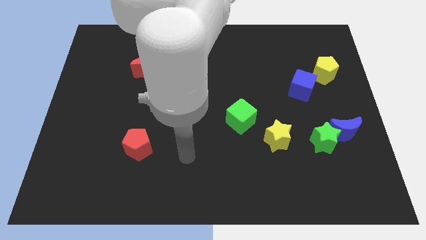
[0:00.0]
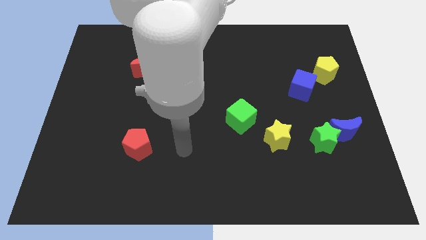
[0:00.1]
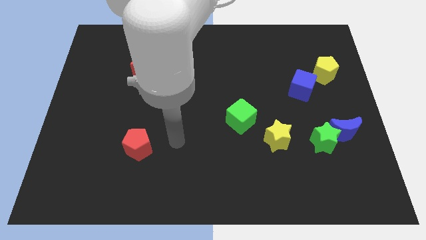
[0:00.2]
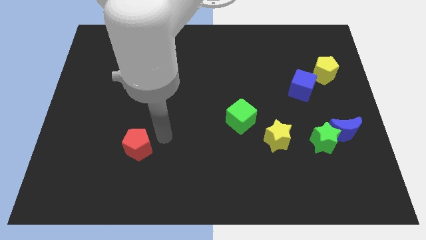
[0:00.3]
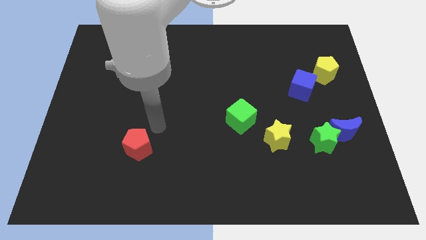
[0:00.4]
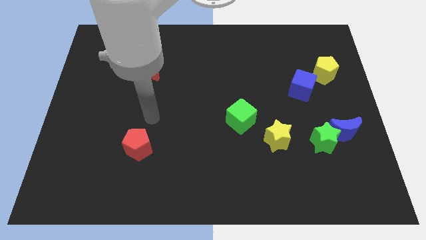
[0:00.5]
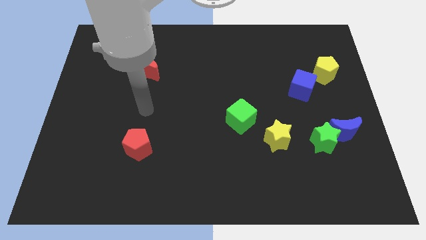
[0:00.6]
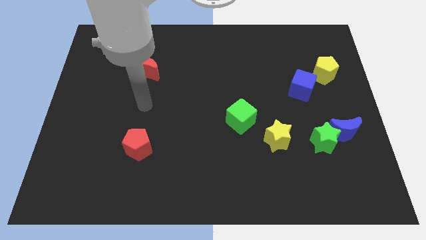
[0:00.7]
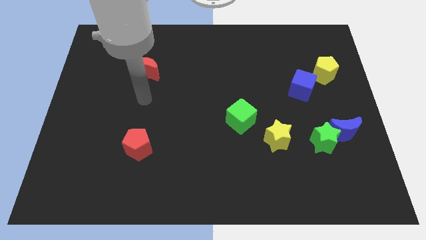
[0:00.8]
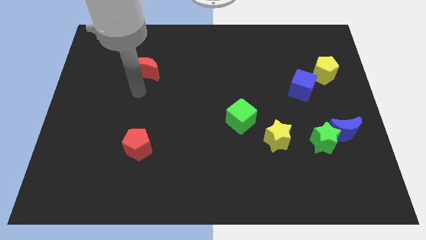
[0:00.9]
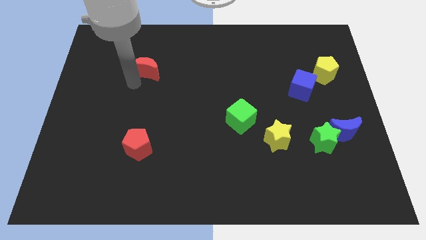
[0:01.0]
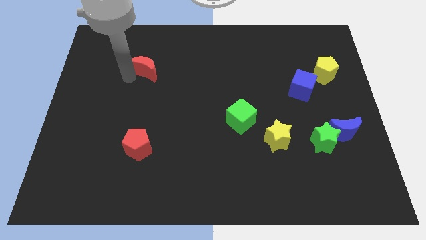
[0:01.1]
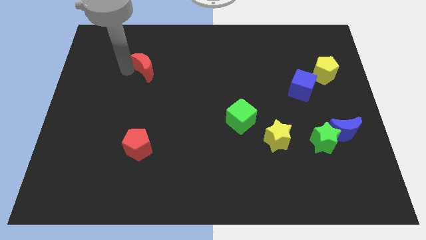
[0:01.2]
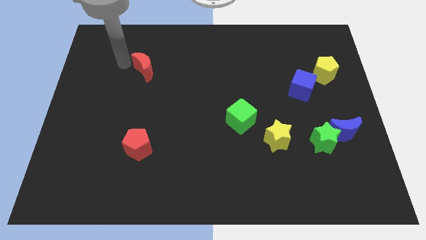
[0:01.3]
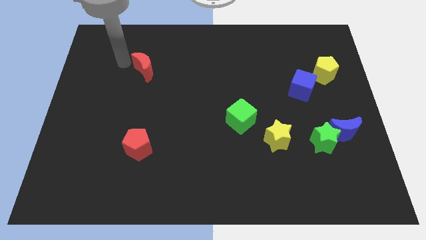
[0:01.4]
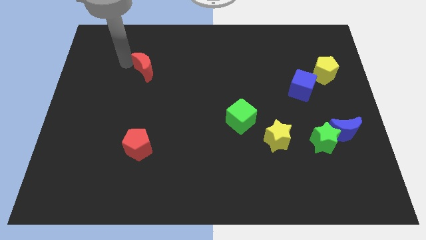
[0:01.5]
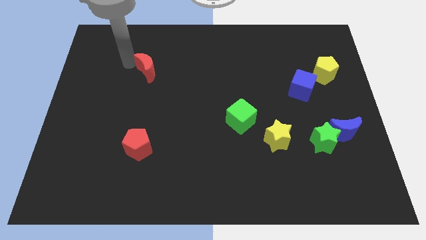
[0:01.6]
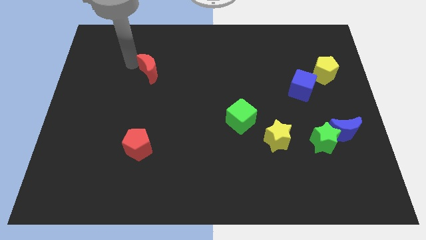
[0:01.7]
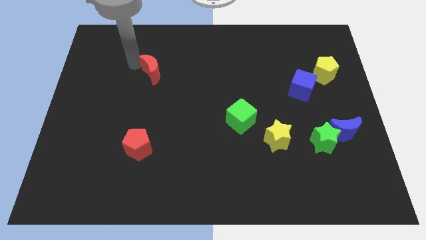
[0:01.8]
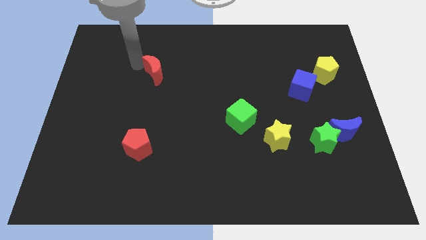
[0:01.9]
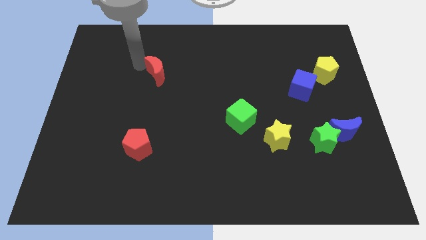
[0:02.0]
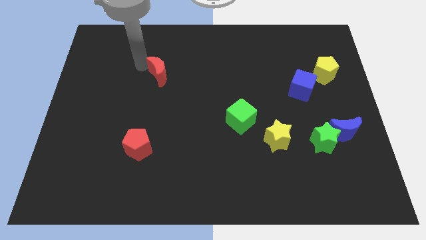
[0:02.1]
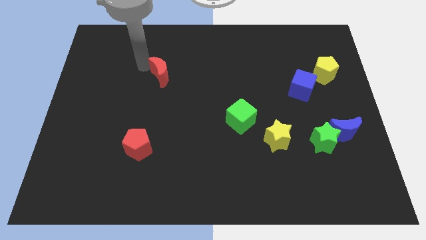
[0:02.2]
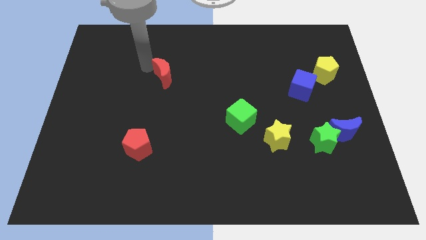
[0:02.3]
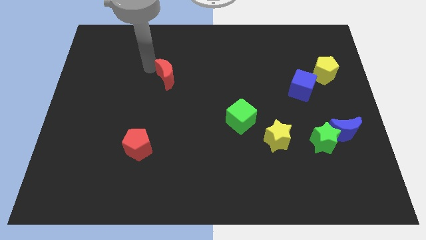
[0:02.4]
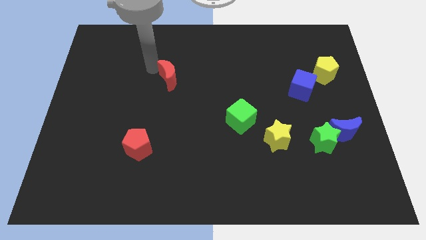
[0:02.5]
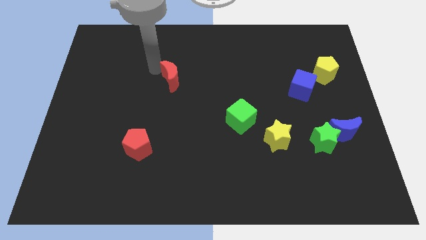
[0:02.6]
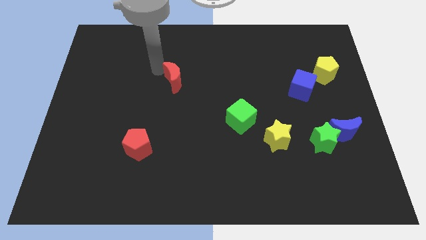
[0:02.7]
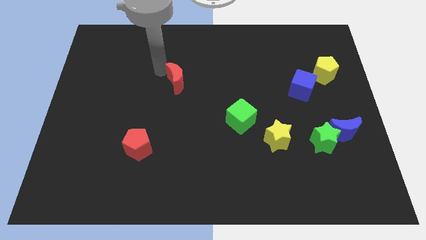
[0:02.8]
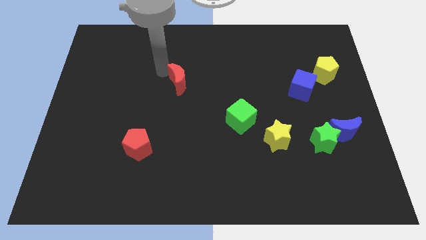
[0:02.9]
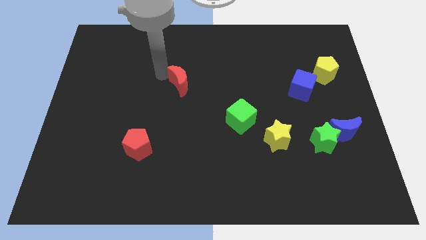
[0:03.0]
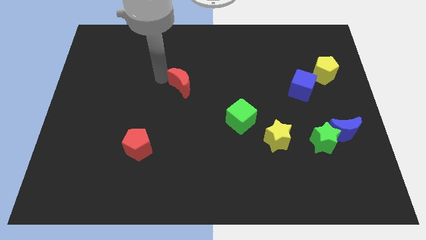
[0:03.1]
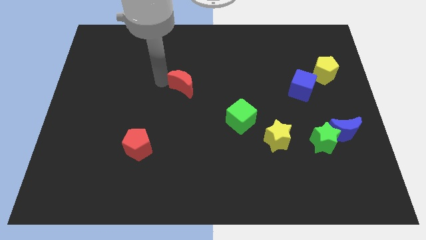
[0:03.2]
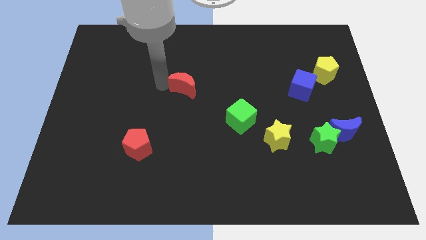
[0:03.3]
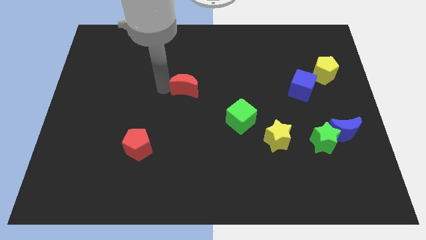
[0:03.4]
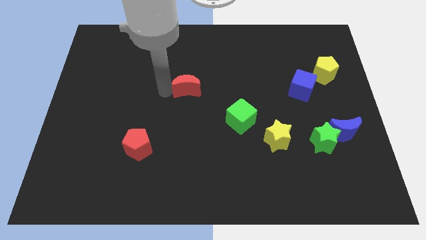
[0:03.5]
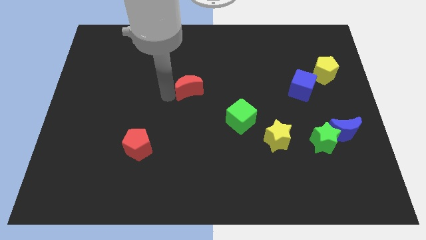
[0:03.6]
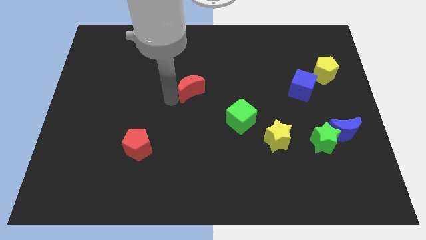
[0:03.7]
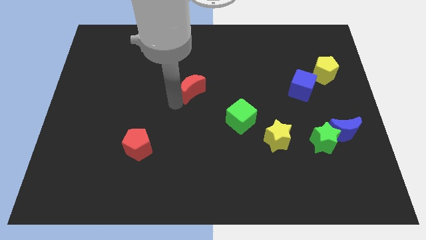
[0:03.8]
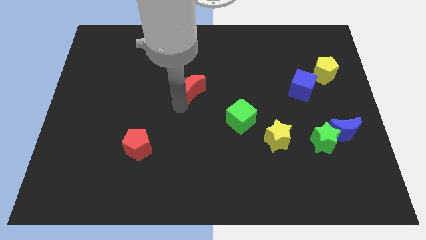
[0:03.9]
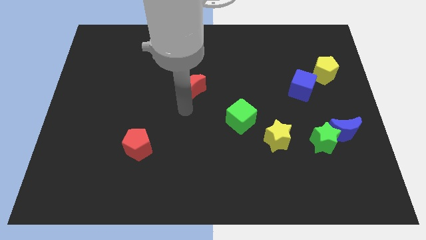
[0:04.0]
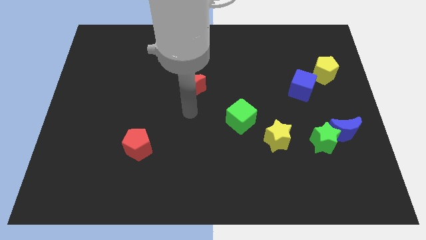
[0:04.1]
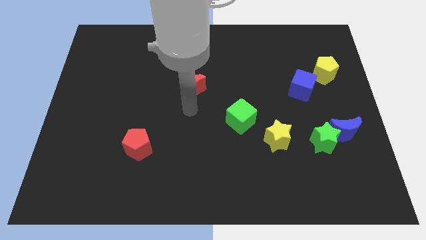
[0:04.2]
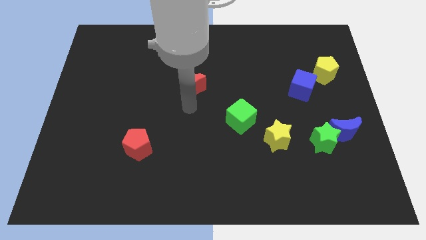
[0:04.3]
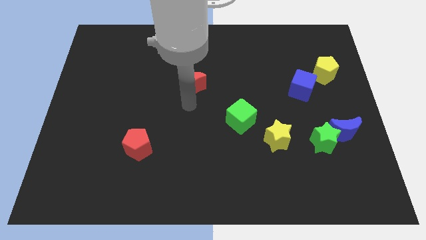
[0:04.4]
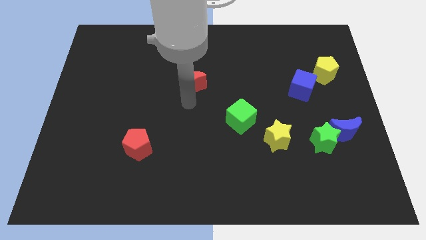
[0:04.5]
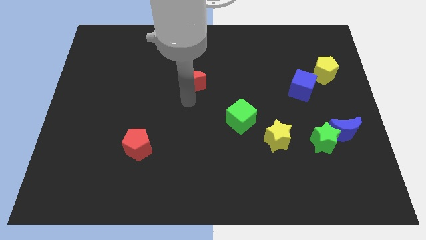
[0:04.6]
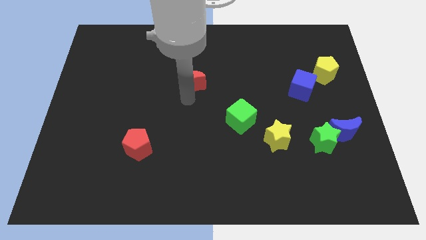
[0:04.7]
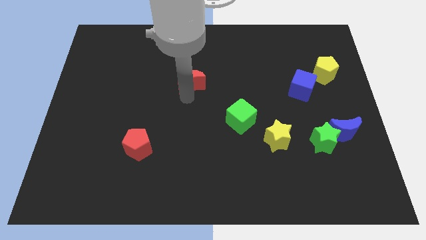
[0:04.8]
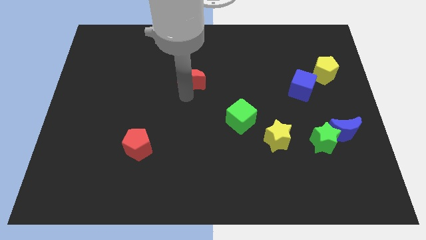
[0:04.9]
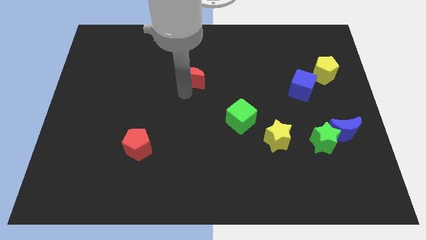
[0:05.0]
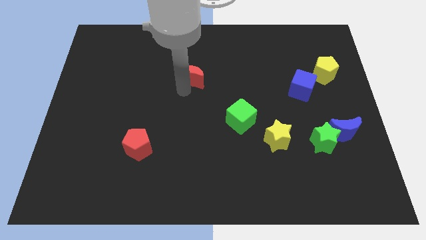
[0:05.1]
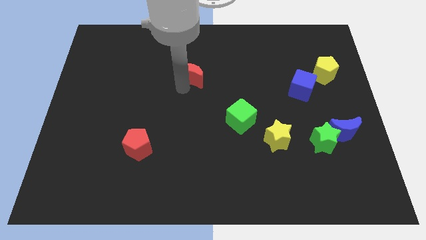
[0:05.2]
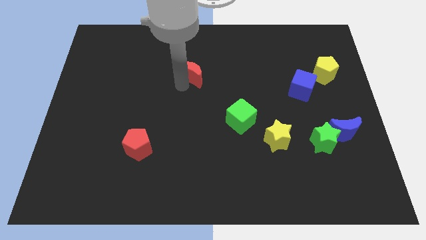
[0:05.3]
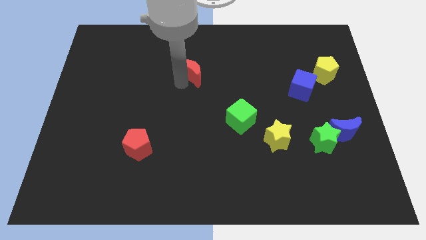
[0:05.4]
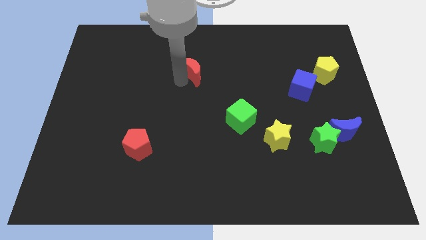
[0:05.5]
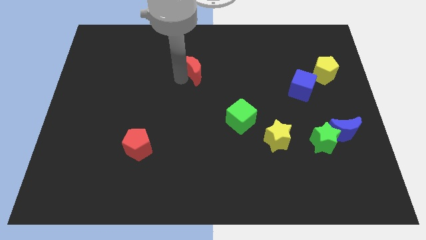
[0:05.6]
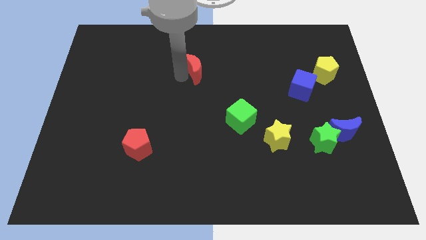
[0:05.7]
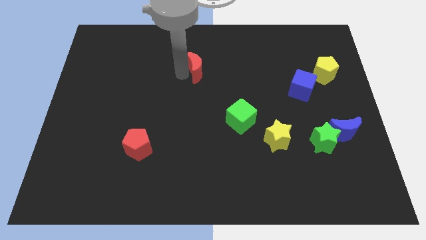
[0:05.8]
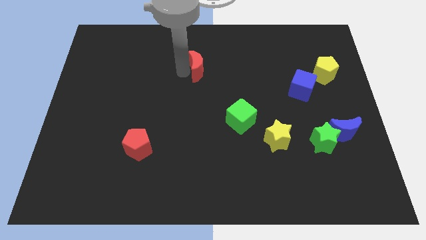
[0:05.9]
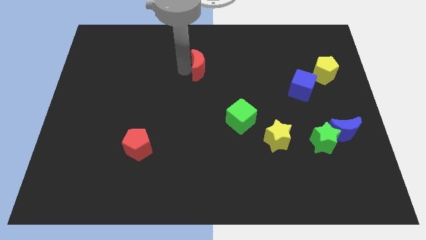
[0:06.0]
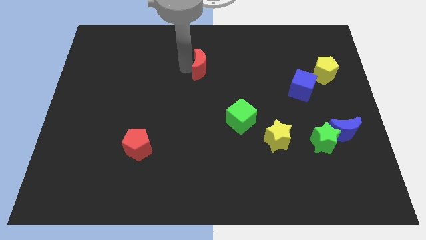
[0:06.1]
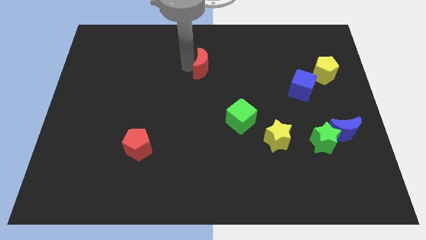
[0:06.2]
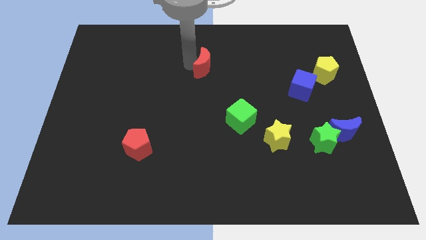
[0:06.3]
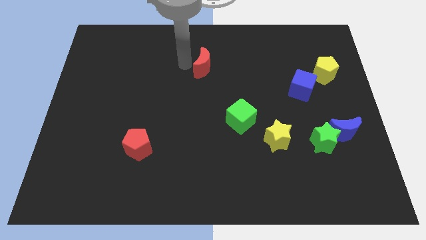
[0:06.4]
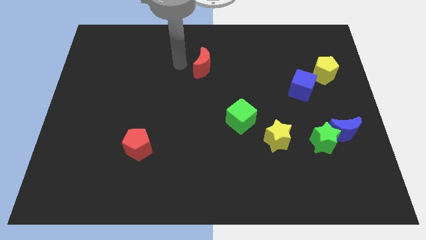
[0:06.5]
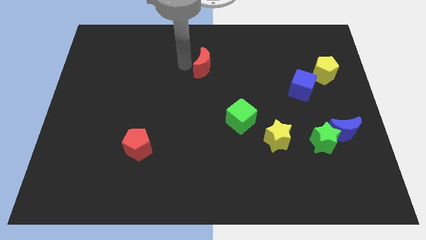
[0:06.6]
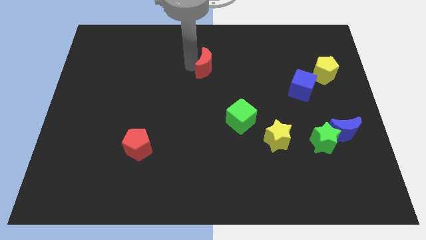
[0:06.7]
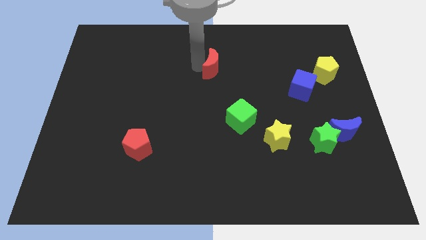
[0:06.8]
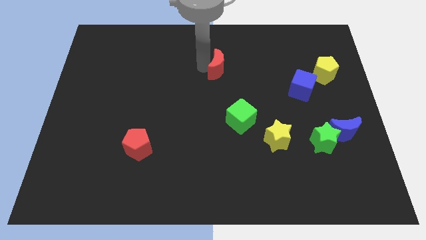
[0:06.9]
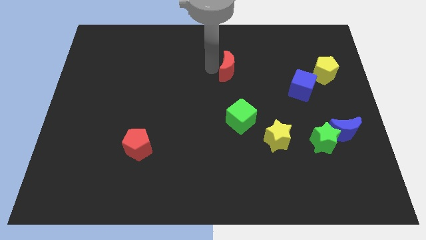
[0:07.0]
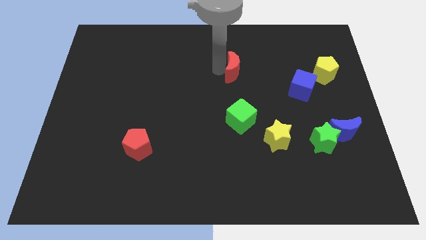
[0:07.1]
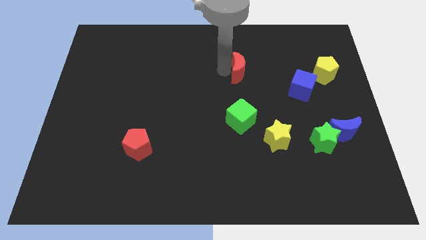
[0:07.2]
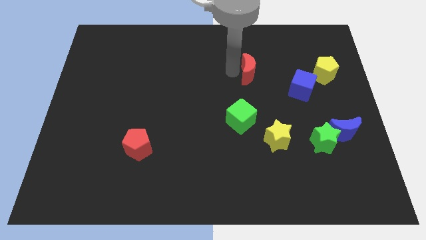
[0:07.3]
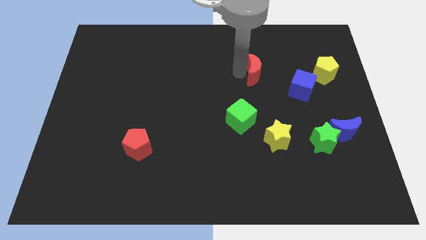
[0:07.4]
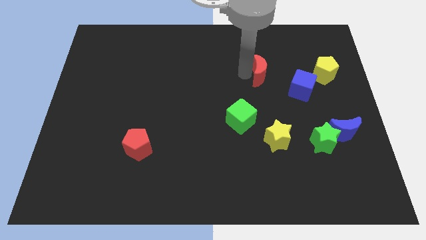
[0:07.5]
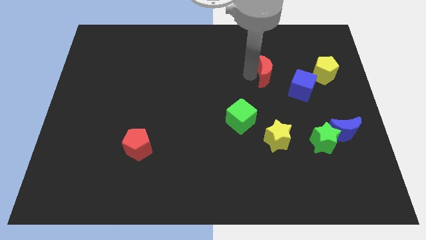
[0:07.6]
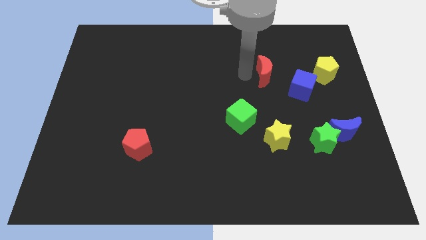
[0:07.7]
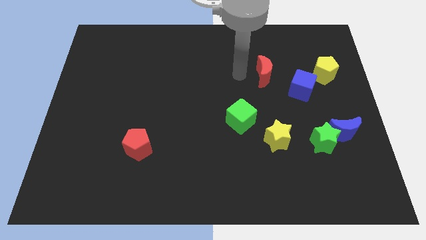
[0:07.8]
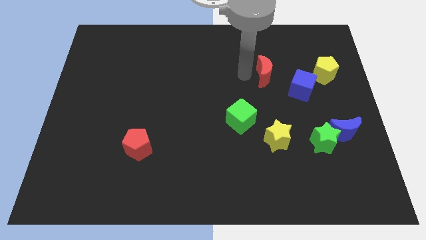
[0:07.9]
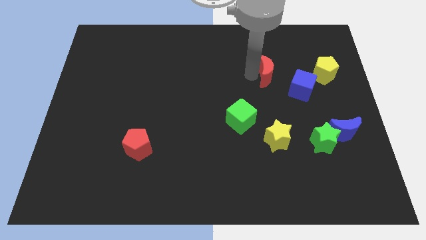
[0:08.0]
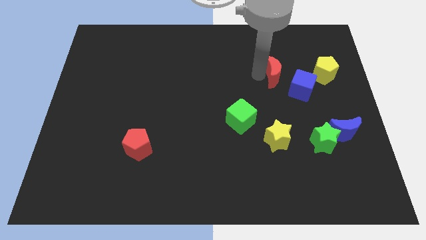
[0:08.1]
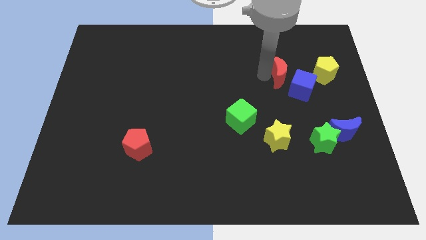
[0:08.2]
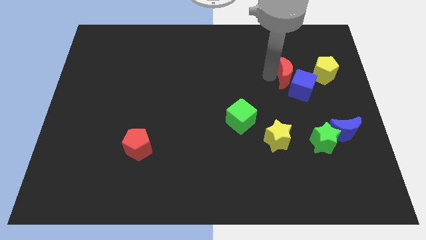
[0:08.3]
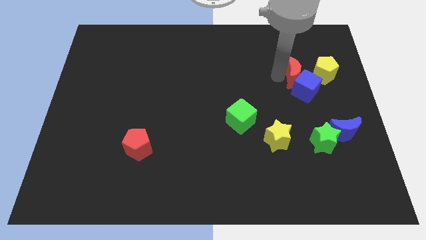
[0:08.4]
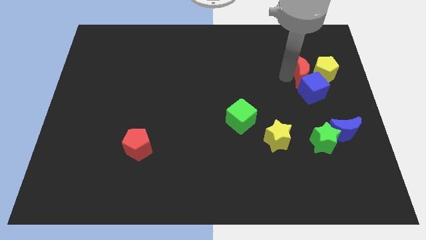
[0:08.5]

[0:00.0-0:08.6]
move the red moon to the yellow pentagon
